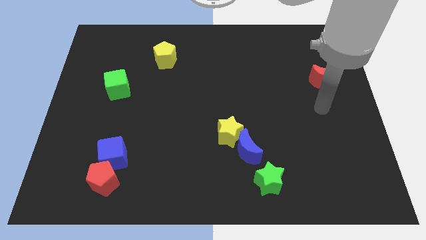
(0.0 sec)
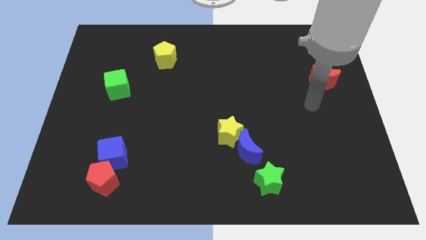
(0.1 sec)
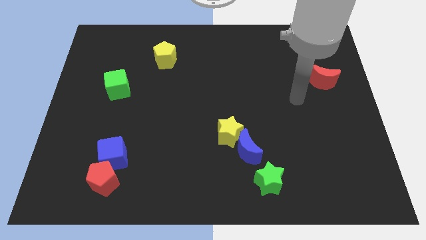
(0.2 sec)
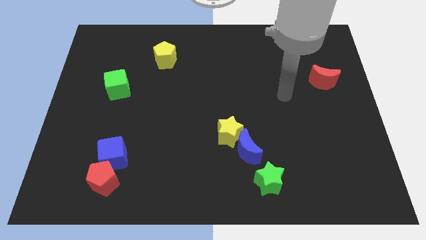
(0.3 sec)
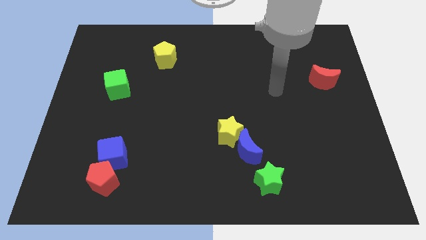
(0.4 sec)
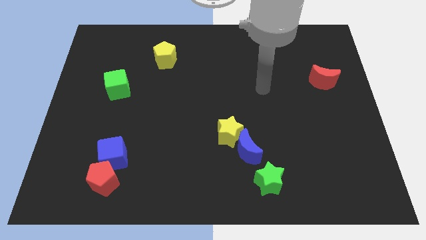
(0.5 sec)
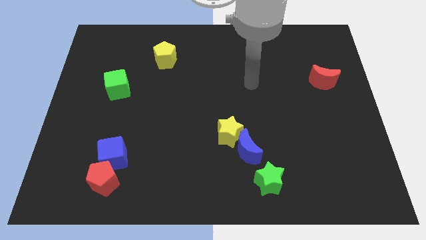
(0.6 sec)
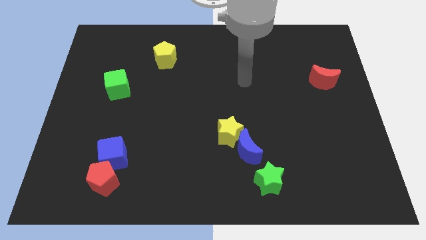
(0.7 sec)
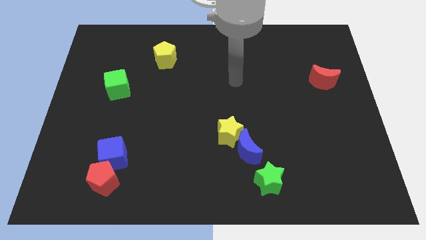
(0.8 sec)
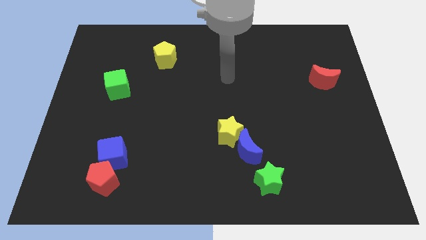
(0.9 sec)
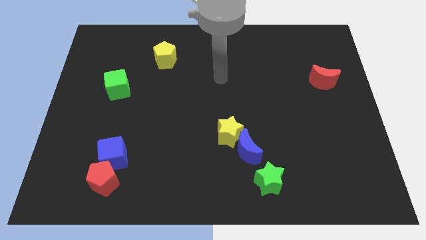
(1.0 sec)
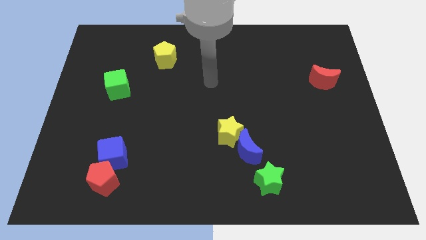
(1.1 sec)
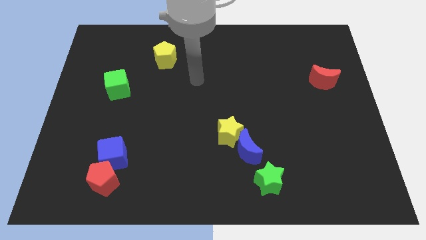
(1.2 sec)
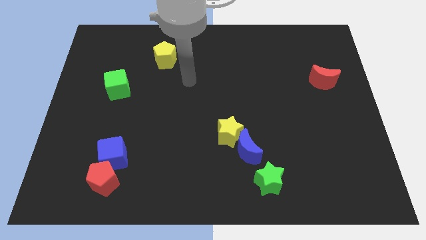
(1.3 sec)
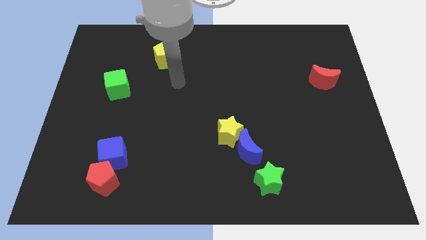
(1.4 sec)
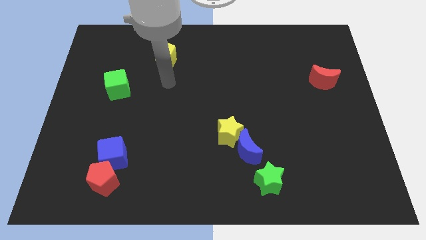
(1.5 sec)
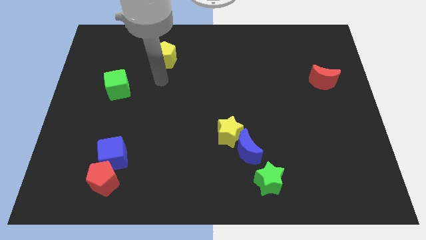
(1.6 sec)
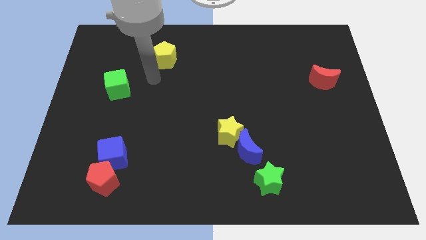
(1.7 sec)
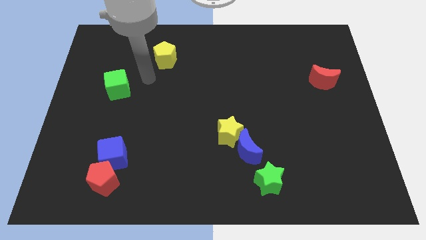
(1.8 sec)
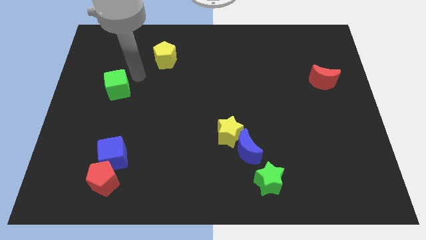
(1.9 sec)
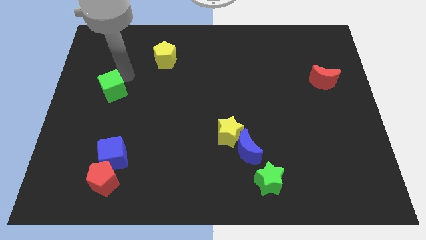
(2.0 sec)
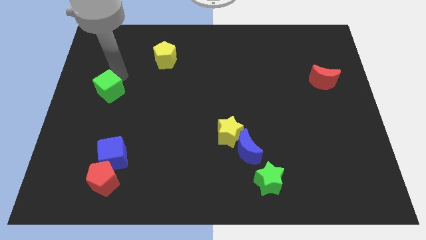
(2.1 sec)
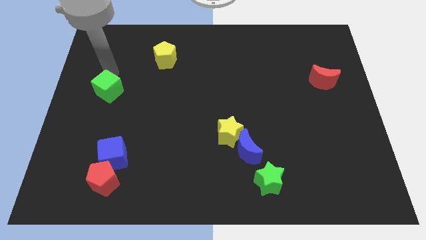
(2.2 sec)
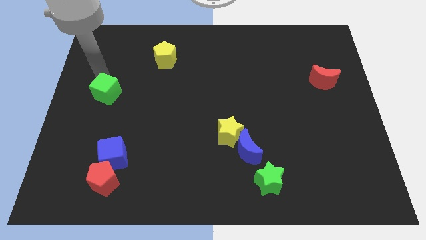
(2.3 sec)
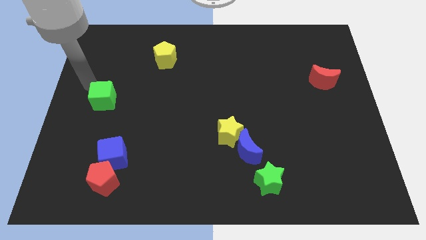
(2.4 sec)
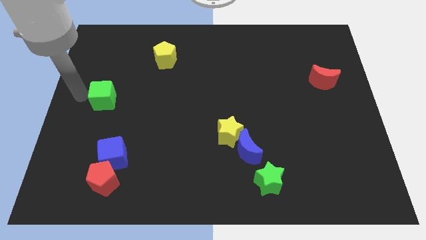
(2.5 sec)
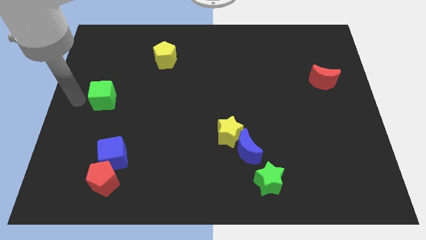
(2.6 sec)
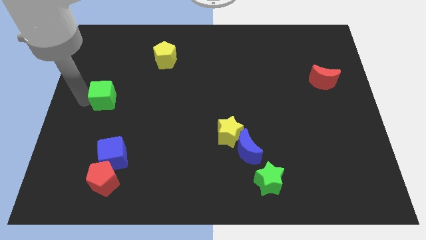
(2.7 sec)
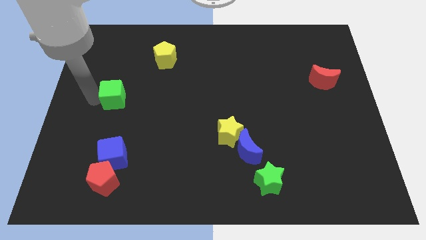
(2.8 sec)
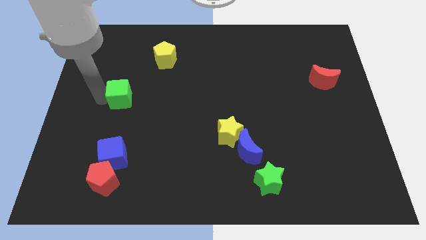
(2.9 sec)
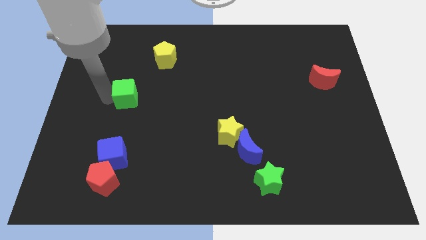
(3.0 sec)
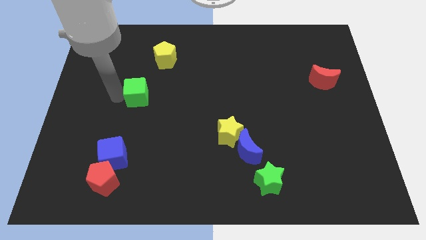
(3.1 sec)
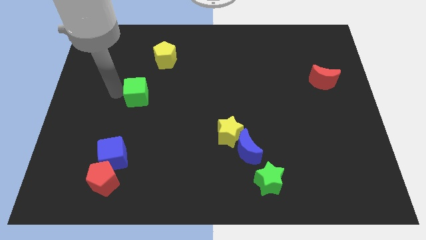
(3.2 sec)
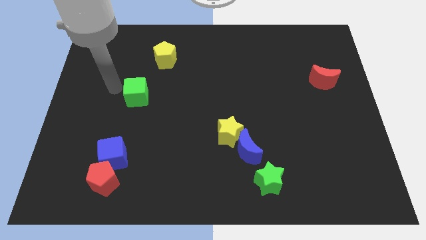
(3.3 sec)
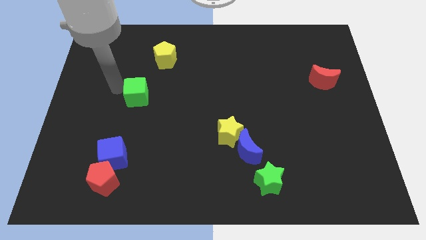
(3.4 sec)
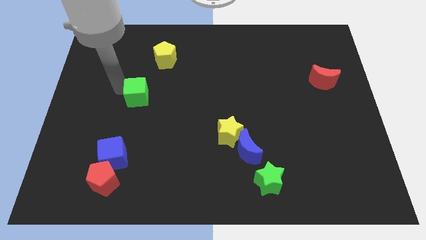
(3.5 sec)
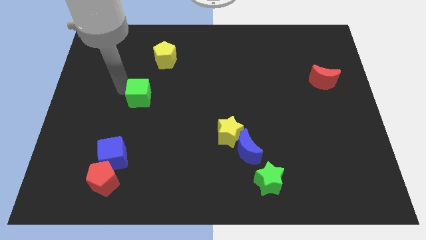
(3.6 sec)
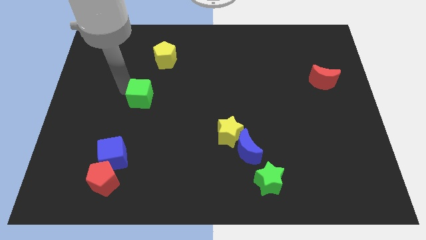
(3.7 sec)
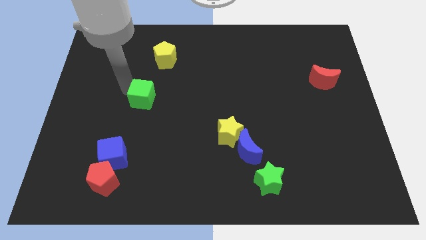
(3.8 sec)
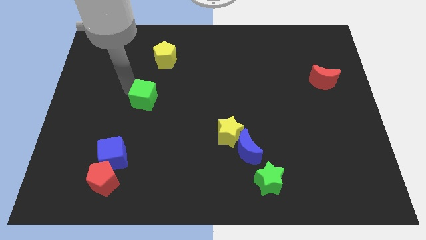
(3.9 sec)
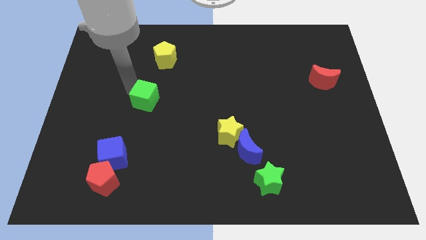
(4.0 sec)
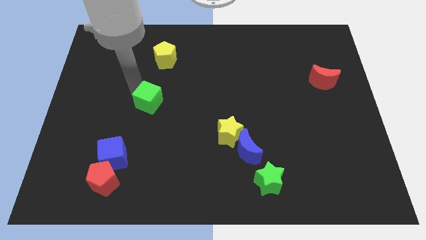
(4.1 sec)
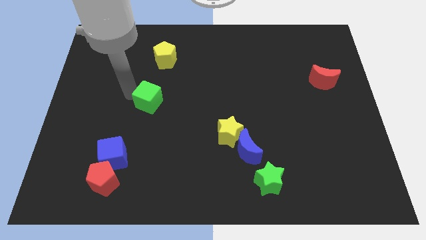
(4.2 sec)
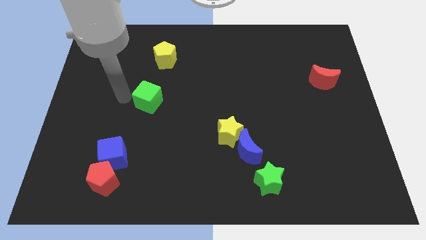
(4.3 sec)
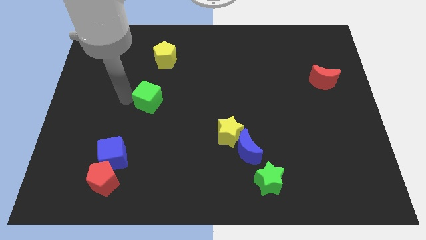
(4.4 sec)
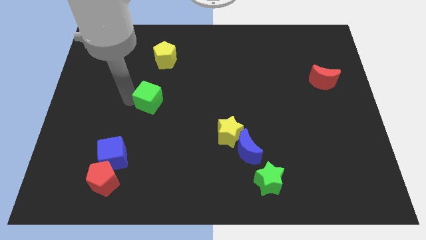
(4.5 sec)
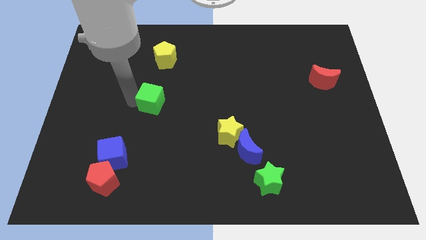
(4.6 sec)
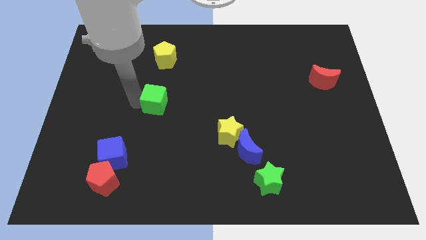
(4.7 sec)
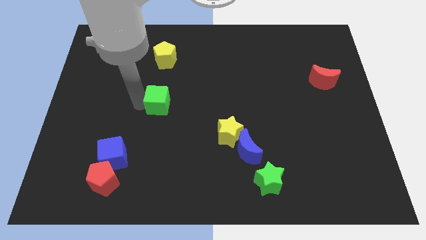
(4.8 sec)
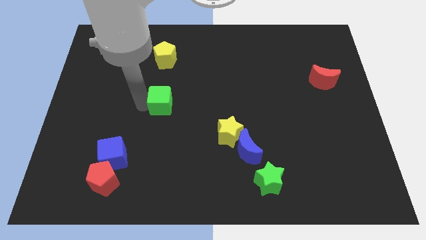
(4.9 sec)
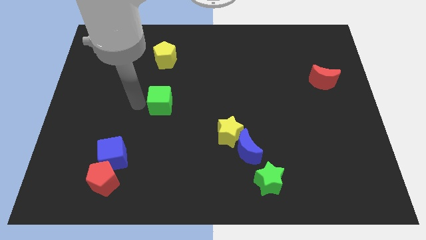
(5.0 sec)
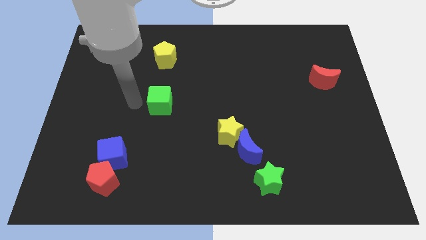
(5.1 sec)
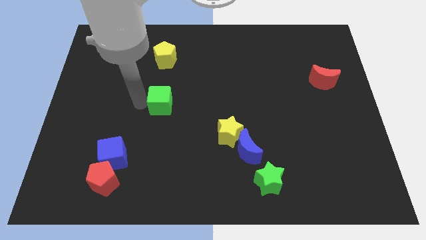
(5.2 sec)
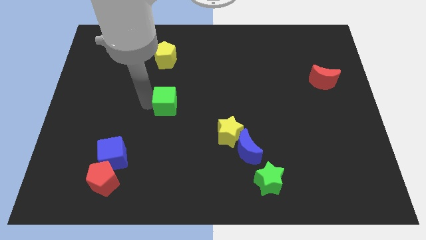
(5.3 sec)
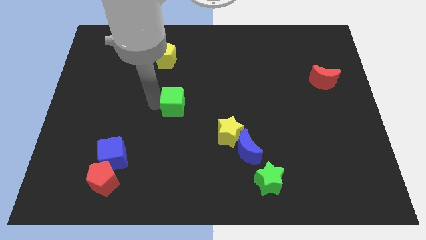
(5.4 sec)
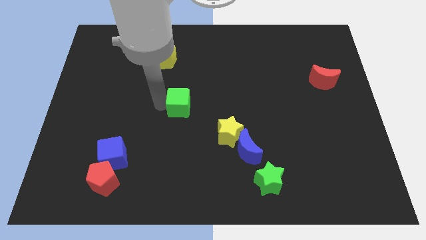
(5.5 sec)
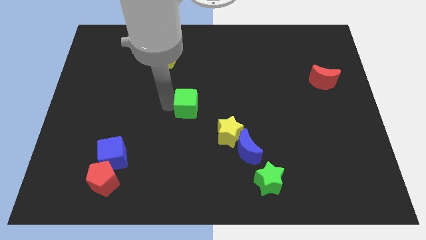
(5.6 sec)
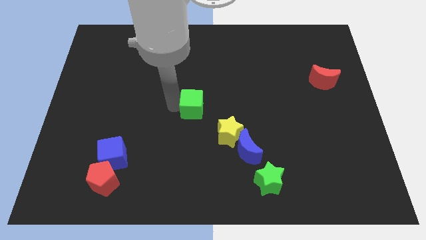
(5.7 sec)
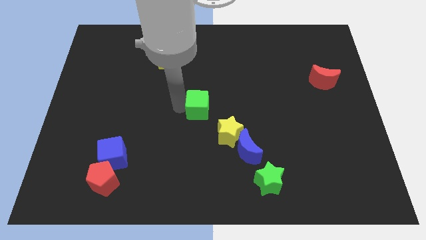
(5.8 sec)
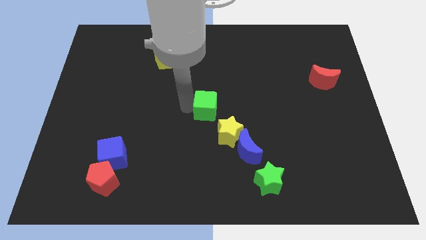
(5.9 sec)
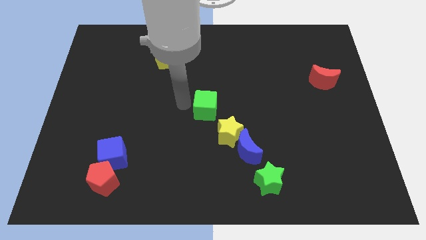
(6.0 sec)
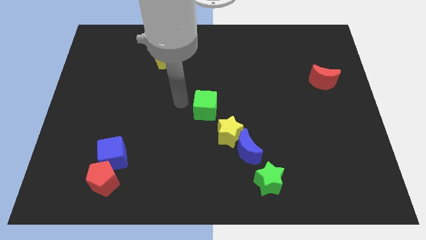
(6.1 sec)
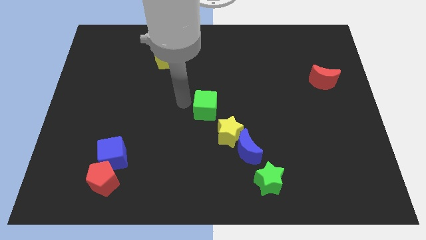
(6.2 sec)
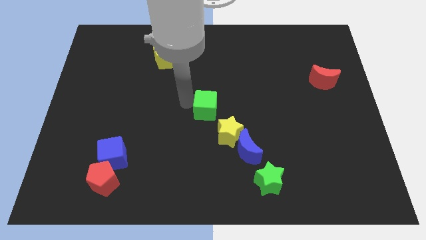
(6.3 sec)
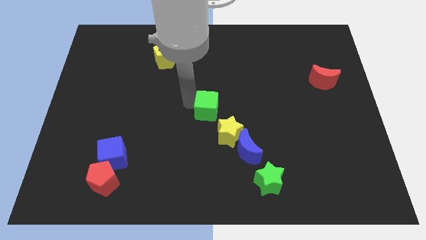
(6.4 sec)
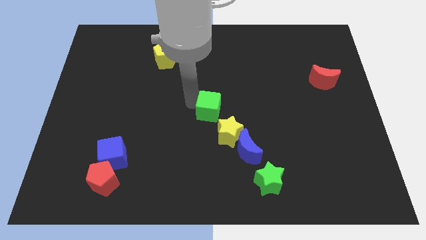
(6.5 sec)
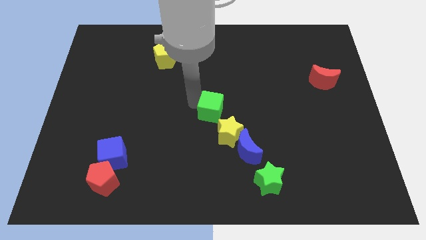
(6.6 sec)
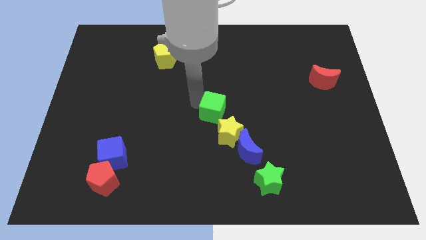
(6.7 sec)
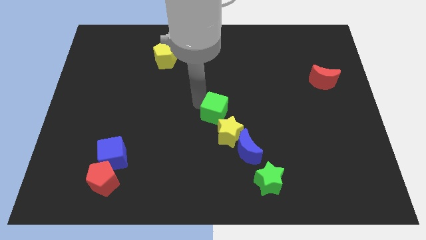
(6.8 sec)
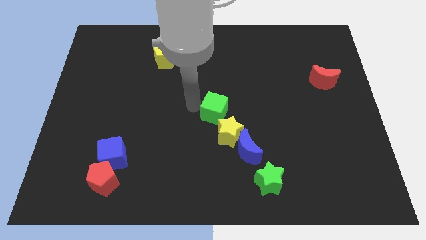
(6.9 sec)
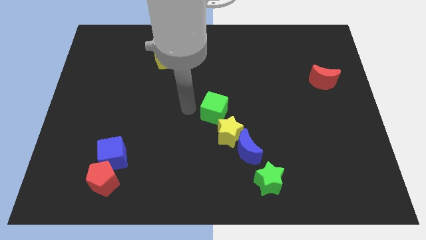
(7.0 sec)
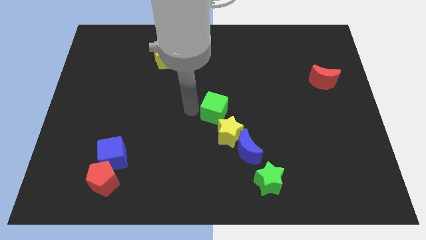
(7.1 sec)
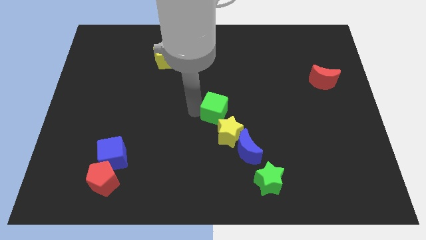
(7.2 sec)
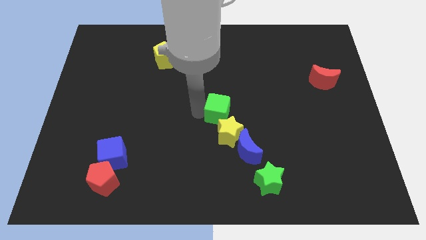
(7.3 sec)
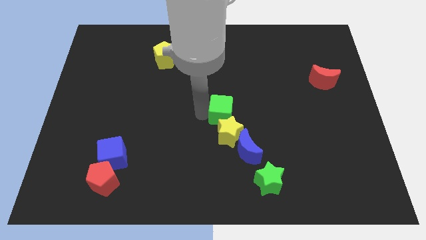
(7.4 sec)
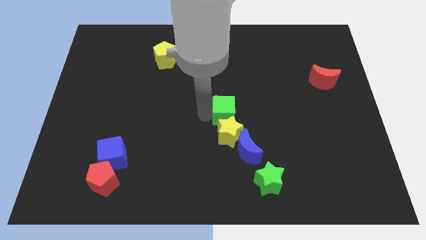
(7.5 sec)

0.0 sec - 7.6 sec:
push the green cube to the top right of the yellow star

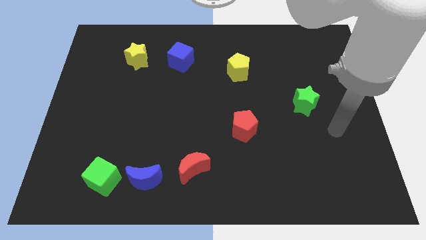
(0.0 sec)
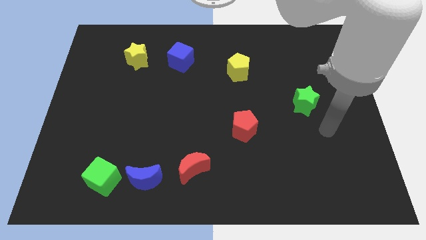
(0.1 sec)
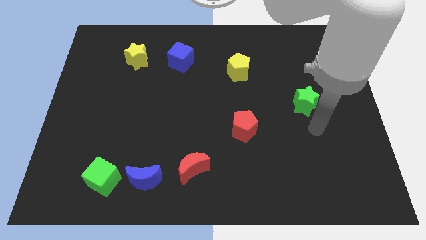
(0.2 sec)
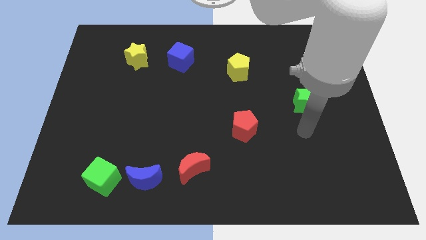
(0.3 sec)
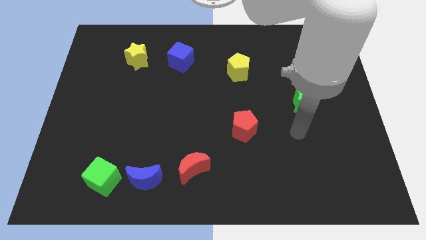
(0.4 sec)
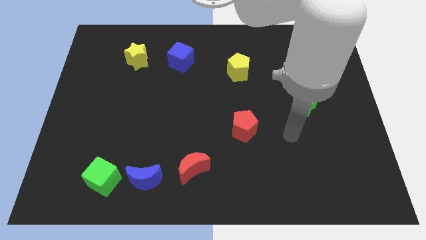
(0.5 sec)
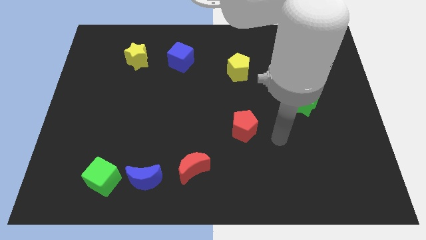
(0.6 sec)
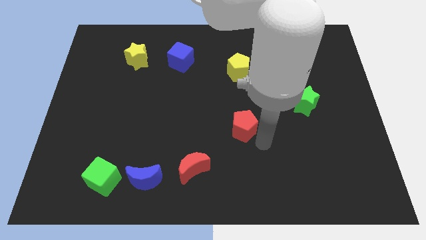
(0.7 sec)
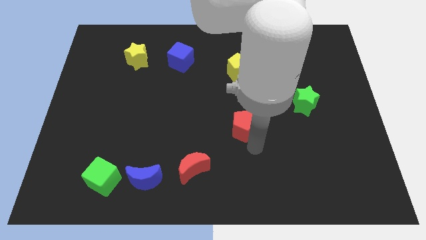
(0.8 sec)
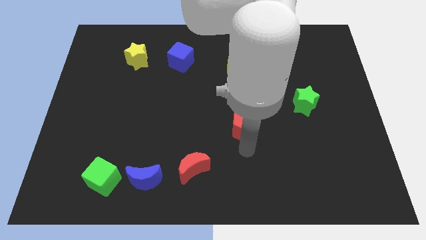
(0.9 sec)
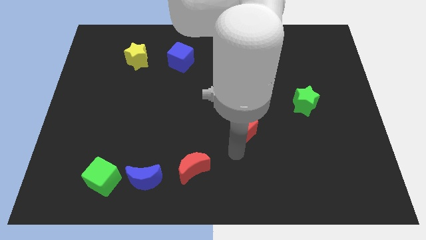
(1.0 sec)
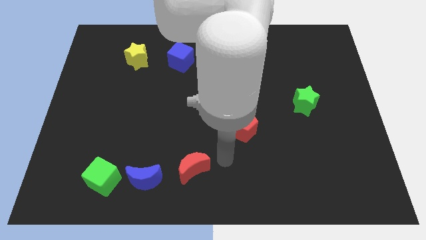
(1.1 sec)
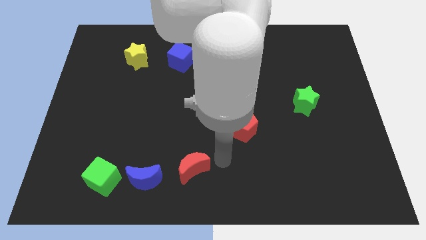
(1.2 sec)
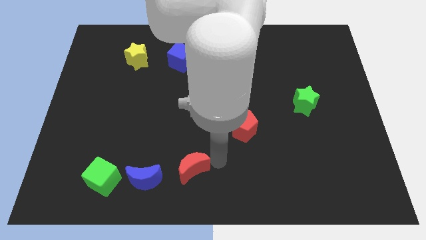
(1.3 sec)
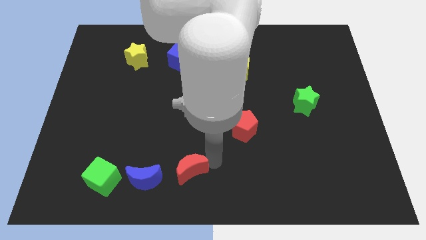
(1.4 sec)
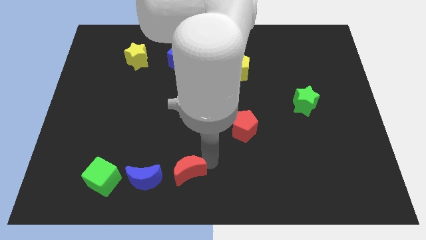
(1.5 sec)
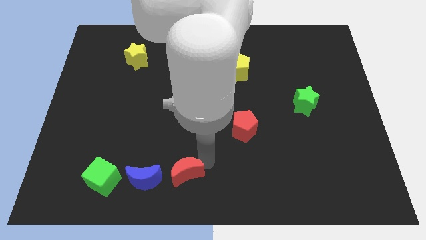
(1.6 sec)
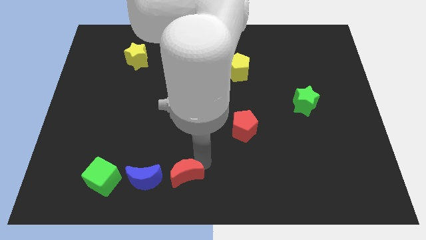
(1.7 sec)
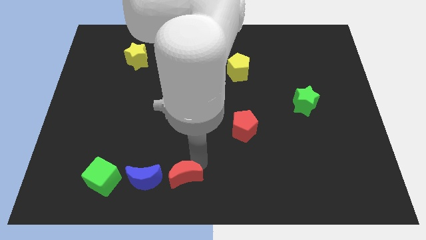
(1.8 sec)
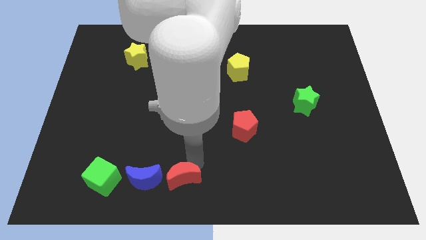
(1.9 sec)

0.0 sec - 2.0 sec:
slide the red moon right of the green cube
